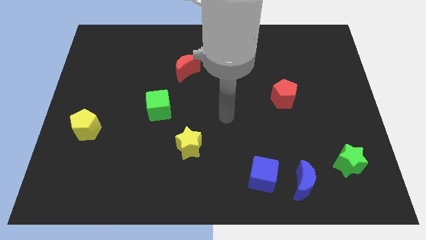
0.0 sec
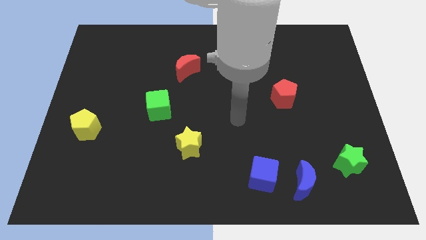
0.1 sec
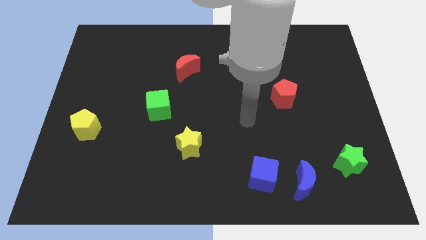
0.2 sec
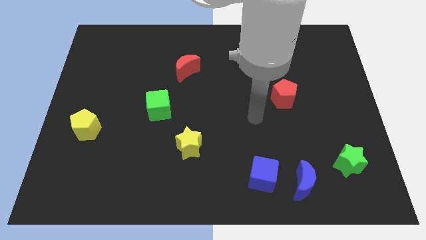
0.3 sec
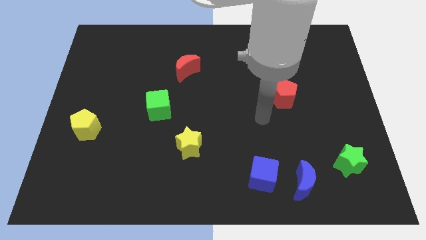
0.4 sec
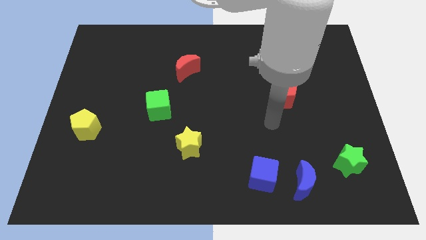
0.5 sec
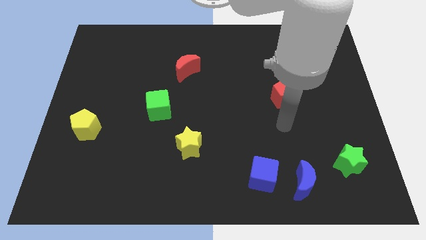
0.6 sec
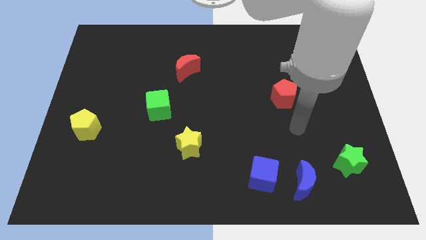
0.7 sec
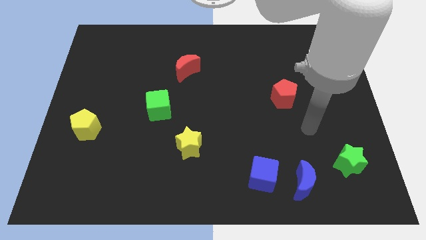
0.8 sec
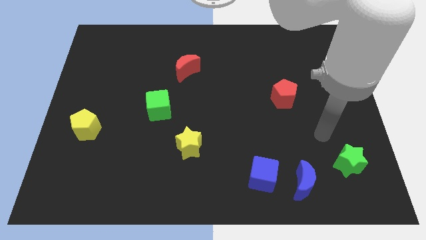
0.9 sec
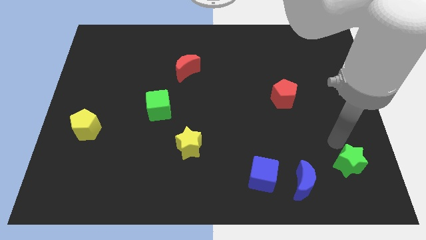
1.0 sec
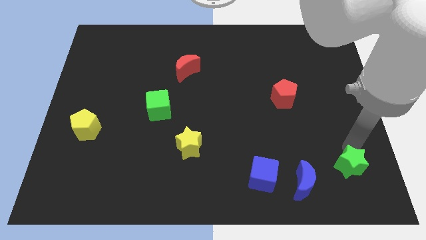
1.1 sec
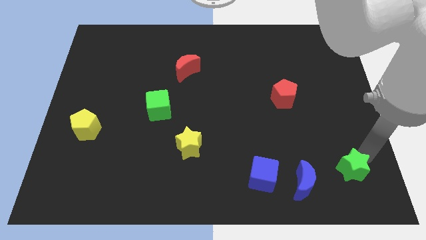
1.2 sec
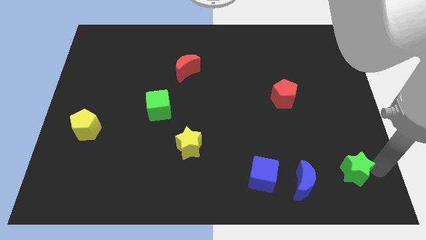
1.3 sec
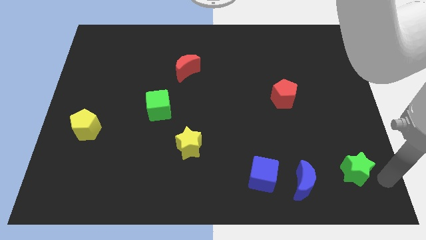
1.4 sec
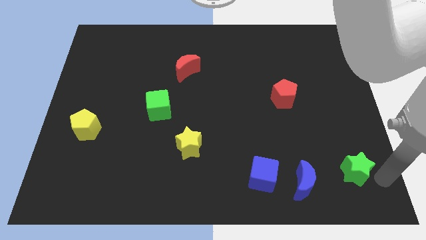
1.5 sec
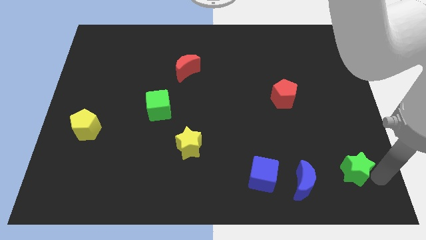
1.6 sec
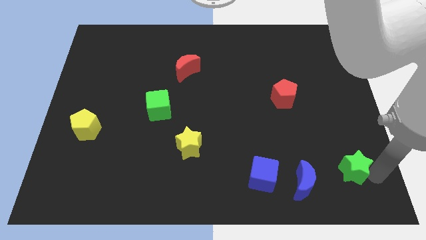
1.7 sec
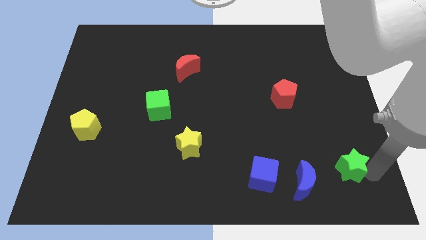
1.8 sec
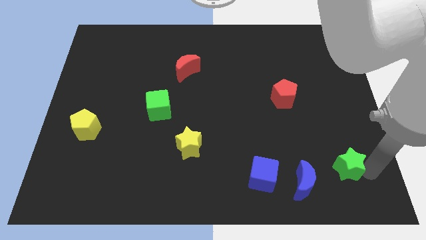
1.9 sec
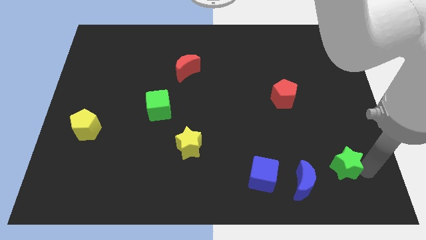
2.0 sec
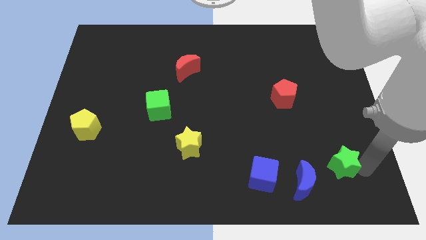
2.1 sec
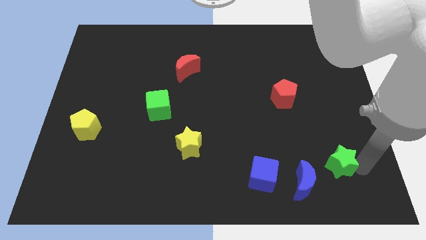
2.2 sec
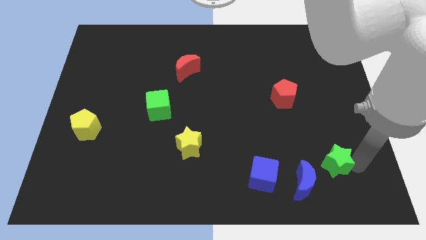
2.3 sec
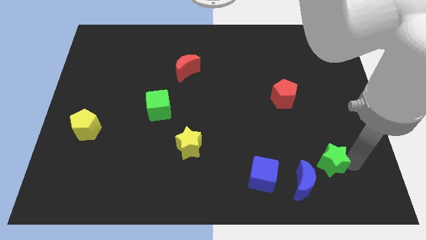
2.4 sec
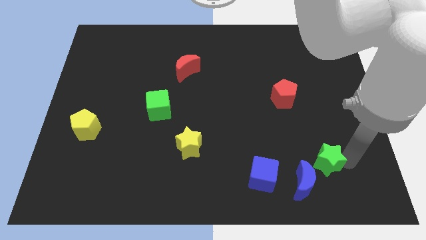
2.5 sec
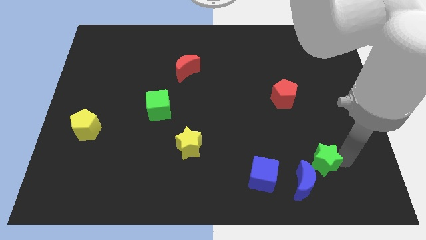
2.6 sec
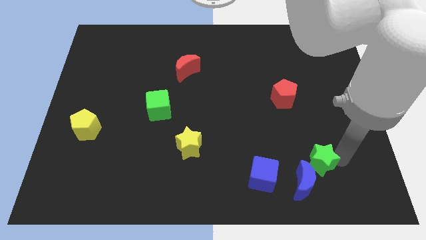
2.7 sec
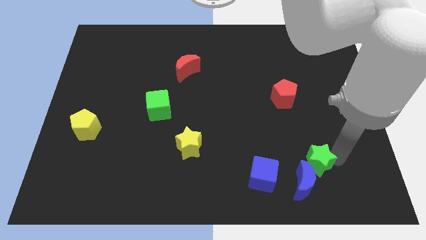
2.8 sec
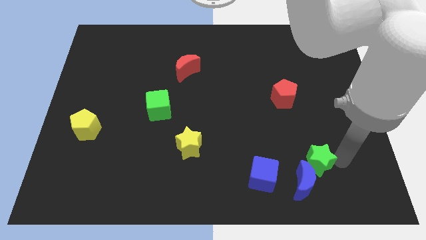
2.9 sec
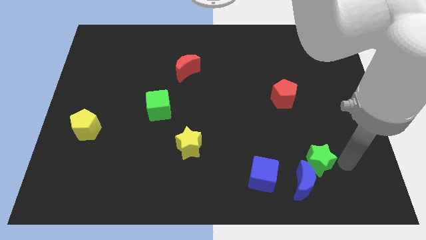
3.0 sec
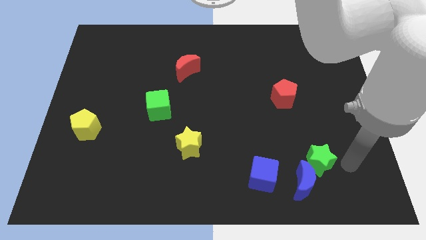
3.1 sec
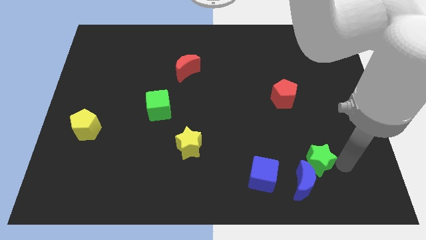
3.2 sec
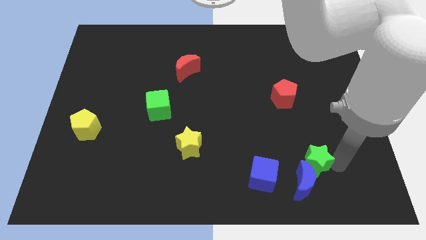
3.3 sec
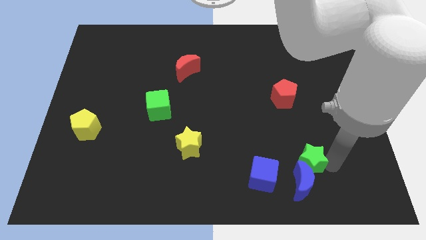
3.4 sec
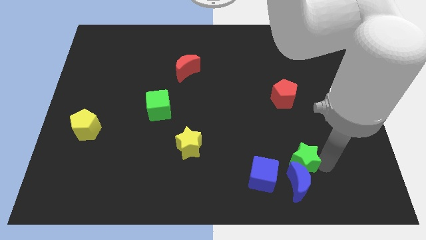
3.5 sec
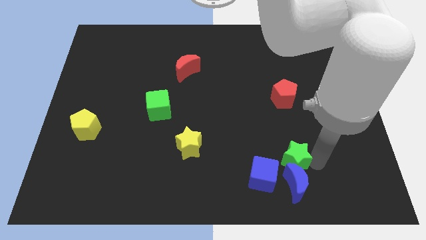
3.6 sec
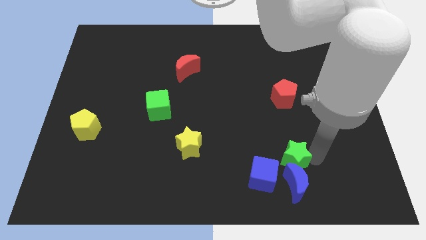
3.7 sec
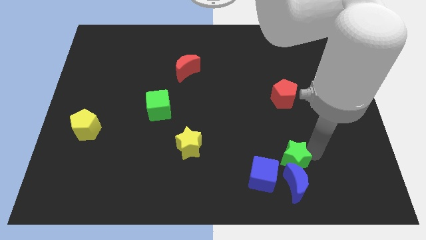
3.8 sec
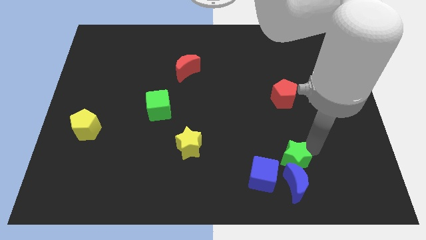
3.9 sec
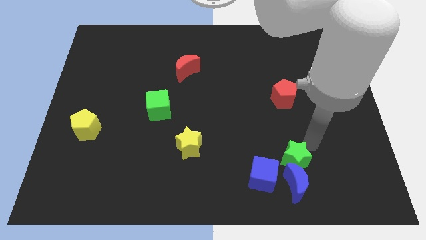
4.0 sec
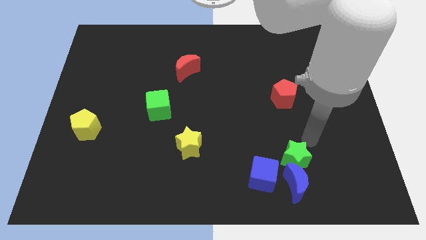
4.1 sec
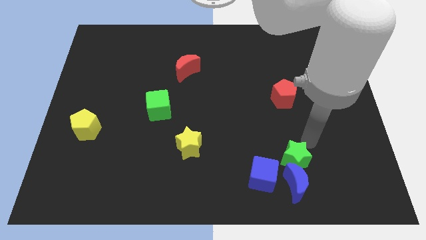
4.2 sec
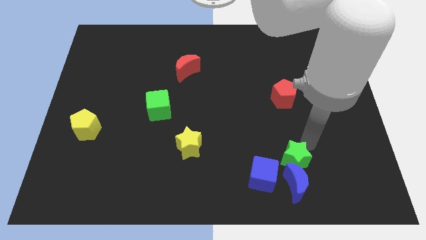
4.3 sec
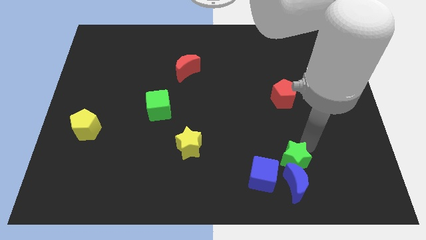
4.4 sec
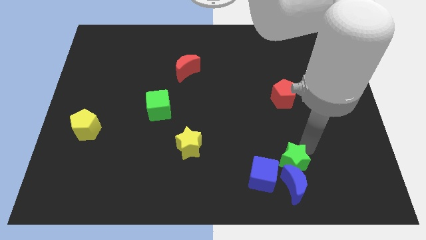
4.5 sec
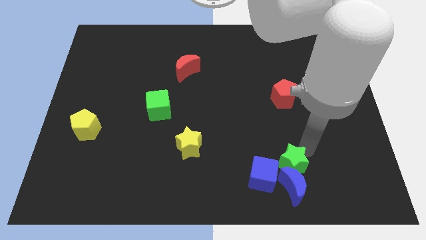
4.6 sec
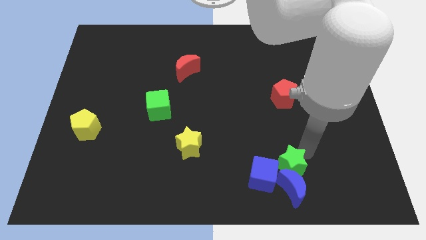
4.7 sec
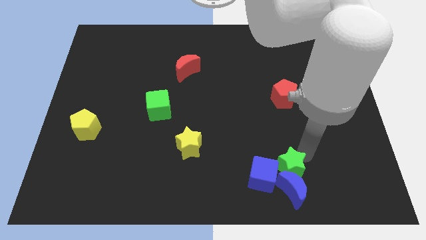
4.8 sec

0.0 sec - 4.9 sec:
slide the green star towards the blue cube

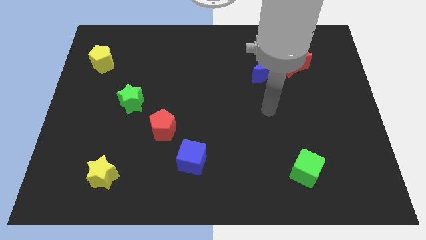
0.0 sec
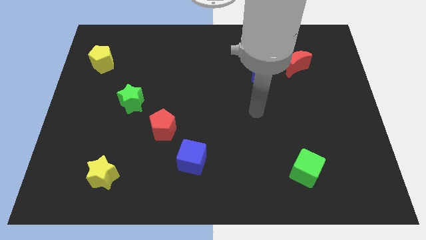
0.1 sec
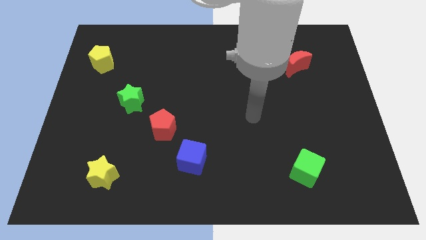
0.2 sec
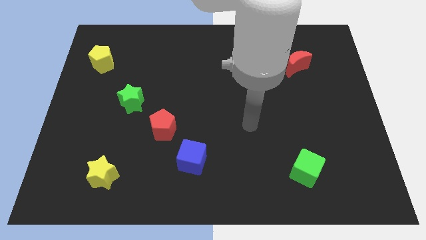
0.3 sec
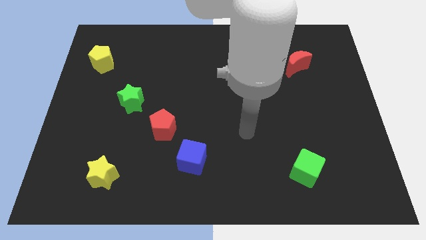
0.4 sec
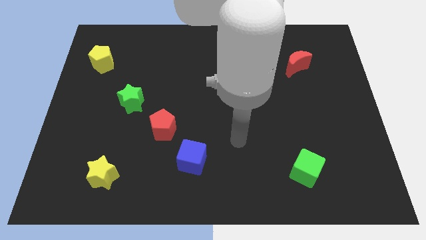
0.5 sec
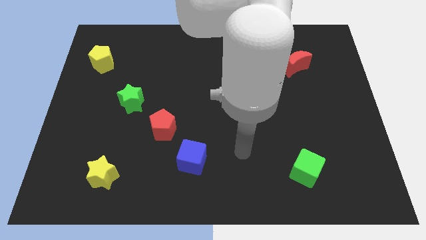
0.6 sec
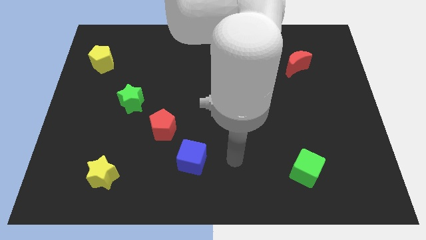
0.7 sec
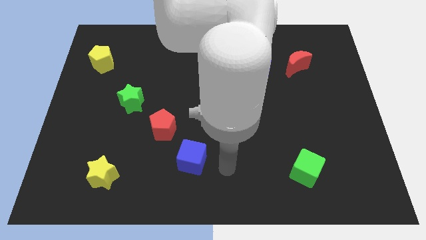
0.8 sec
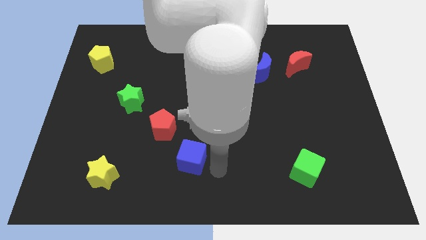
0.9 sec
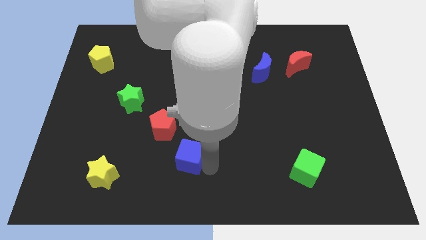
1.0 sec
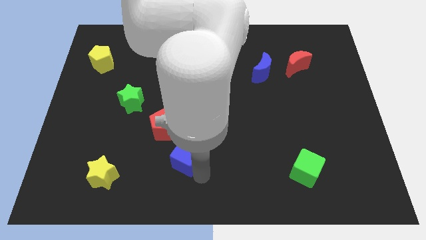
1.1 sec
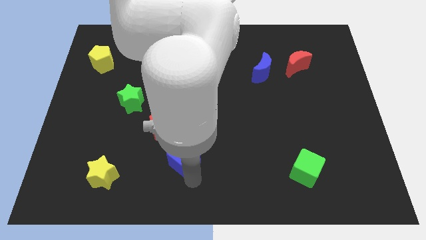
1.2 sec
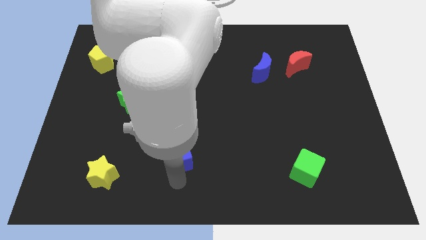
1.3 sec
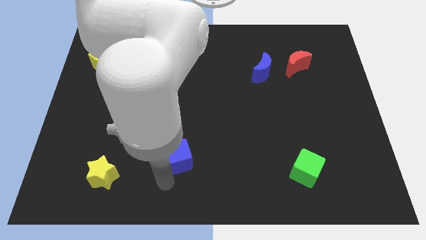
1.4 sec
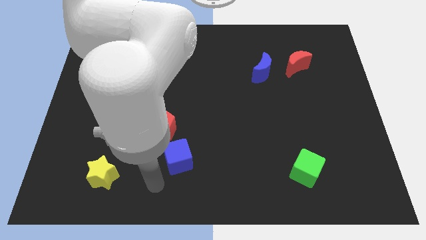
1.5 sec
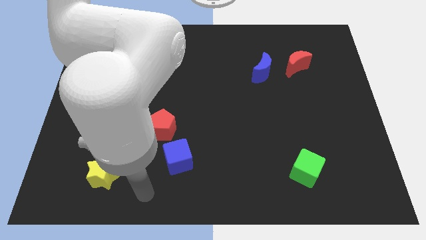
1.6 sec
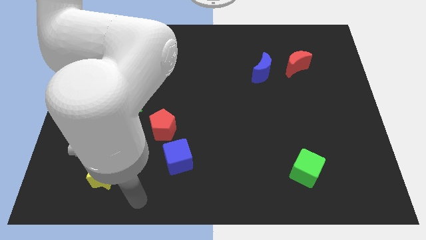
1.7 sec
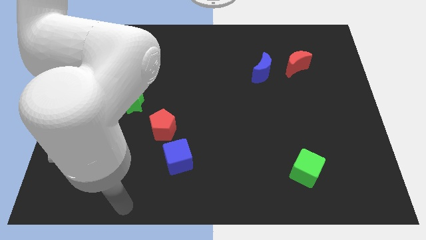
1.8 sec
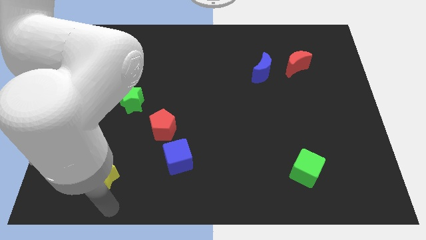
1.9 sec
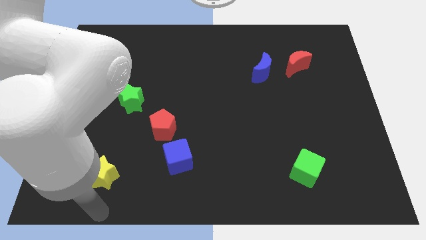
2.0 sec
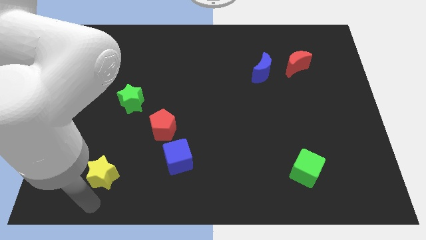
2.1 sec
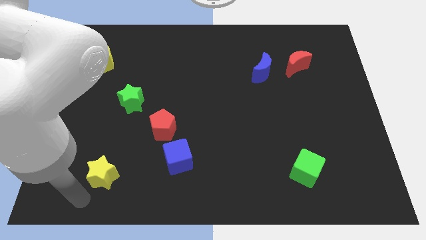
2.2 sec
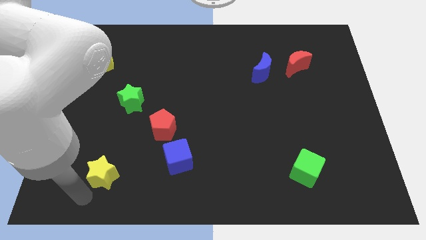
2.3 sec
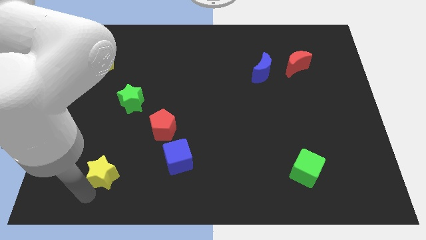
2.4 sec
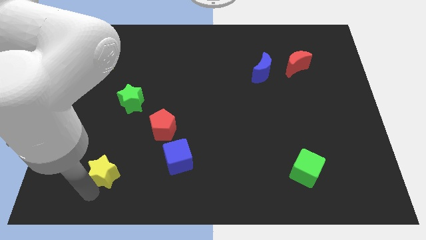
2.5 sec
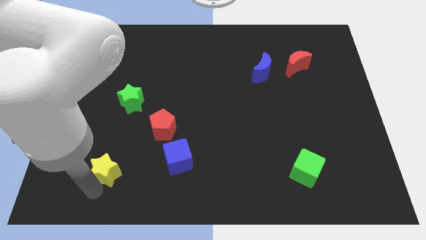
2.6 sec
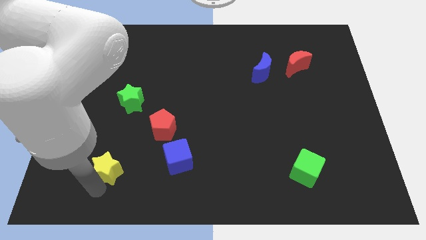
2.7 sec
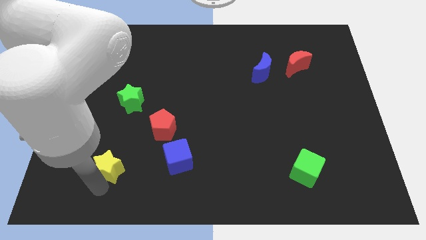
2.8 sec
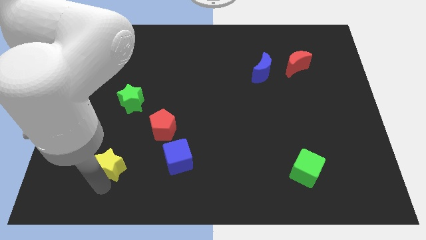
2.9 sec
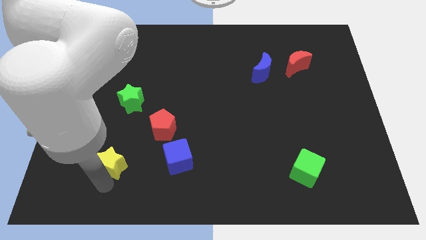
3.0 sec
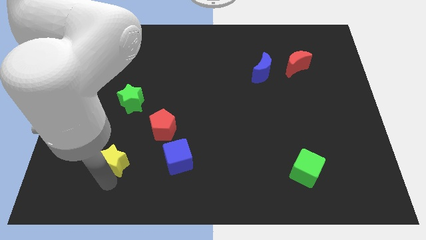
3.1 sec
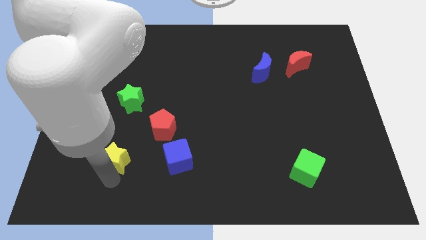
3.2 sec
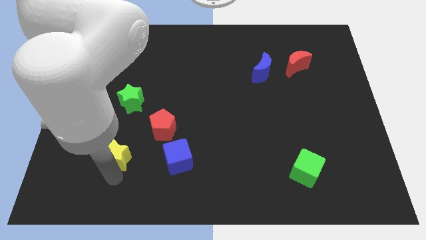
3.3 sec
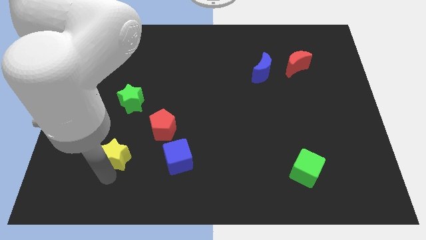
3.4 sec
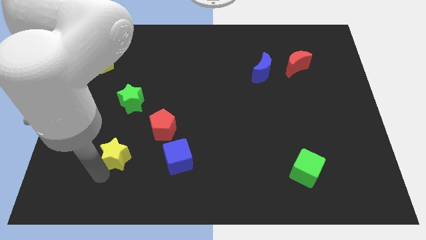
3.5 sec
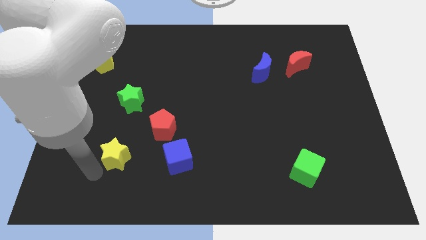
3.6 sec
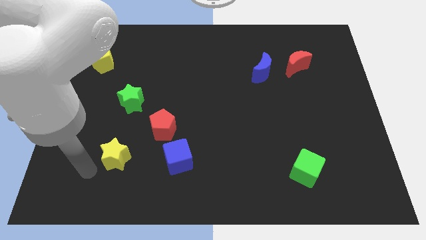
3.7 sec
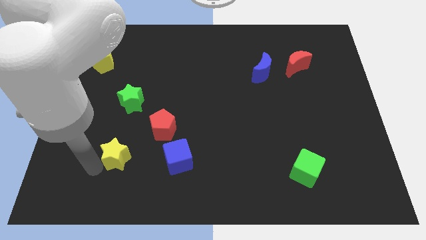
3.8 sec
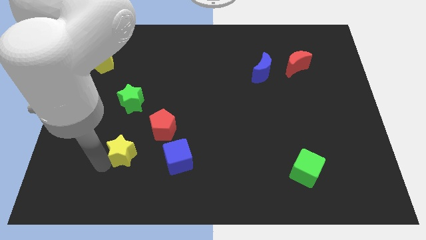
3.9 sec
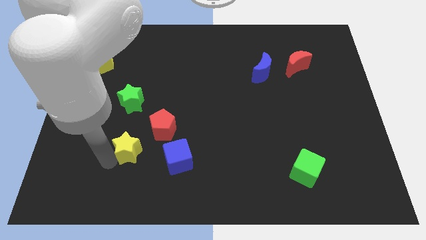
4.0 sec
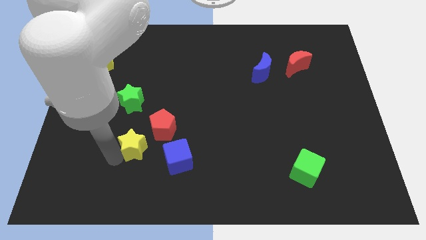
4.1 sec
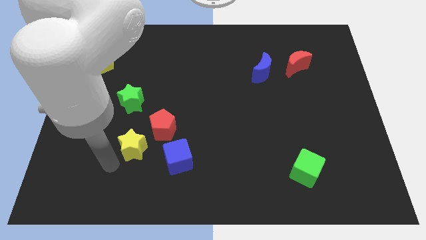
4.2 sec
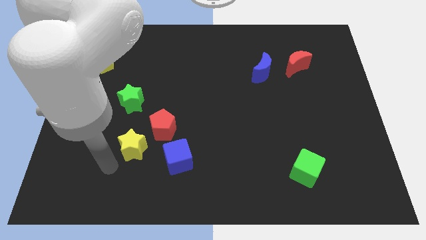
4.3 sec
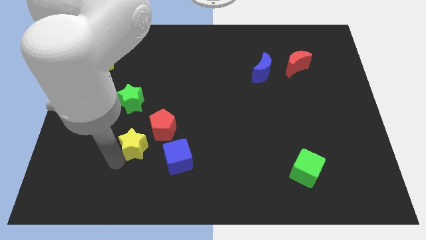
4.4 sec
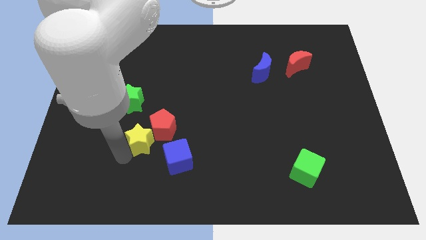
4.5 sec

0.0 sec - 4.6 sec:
put the yellow star to the red pentagon
